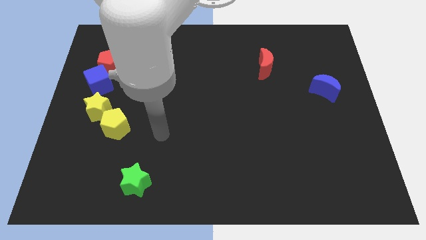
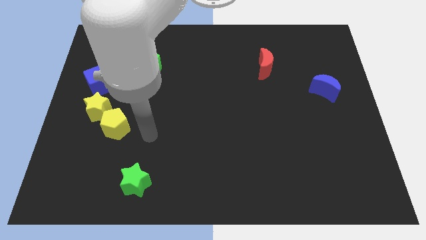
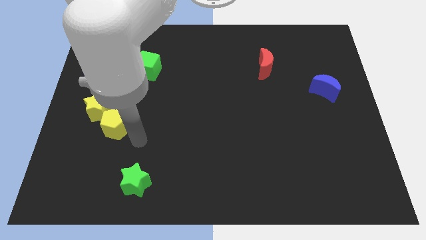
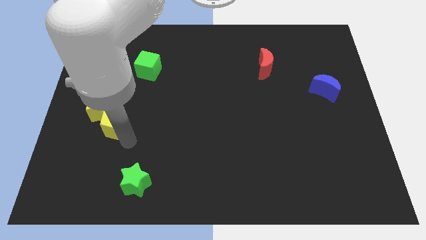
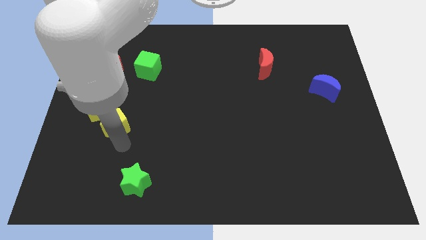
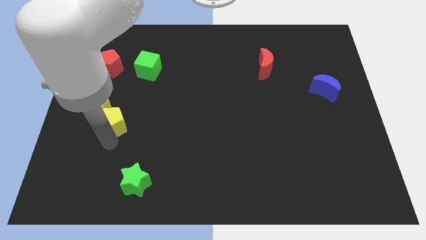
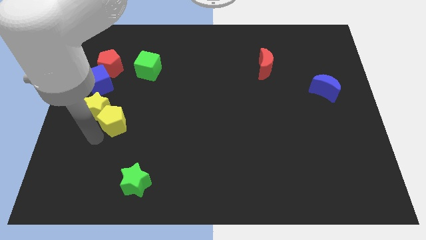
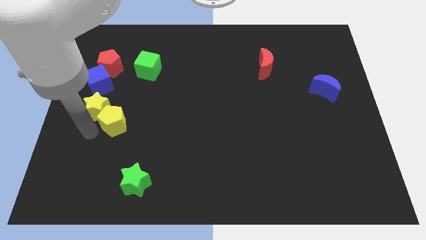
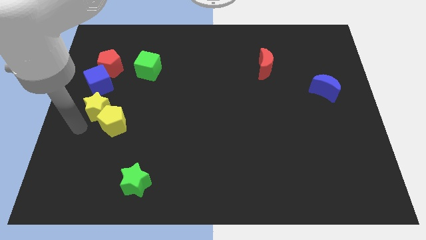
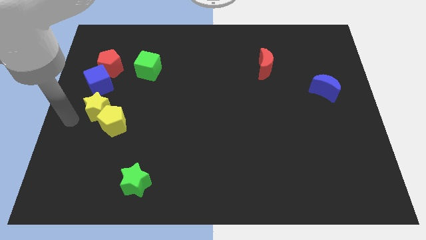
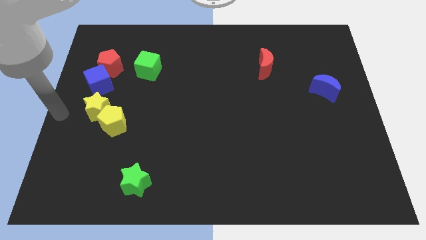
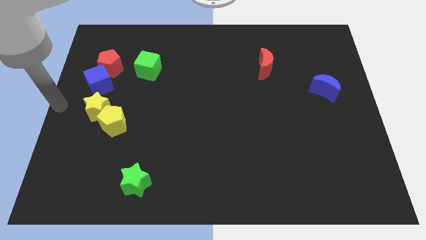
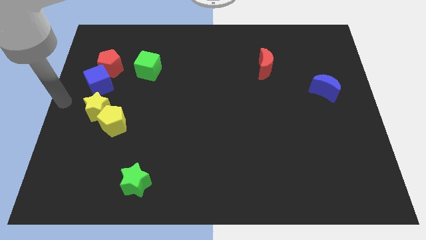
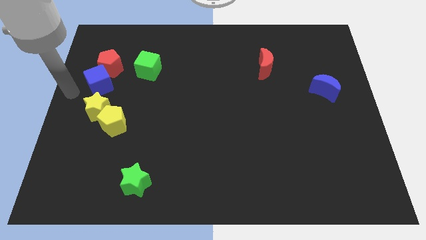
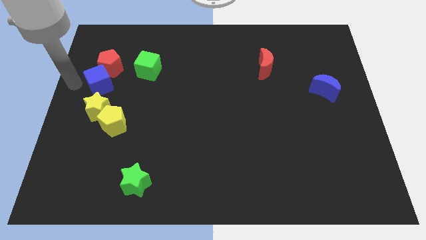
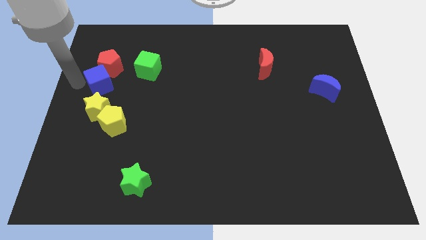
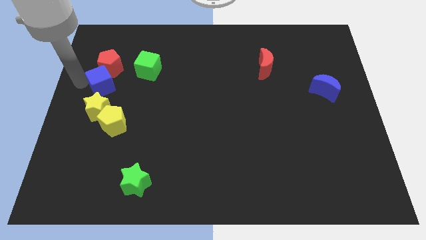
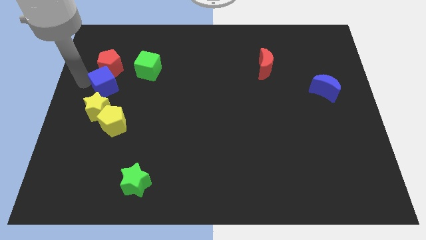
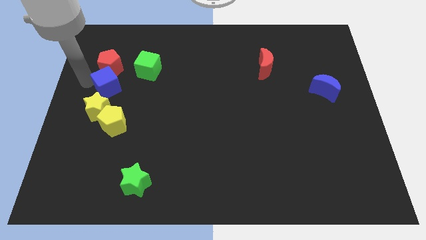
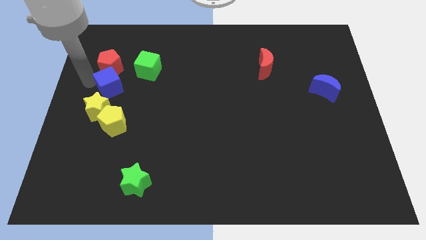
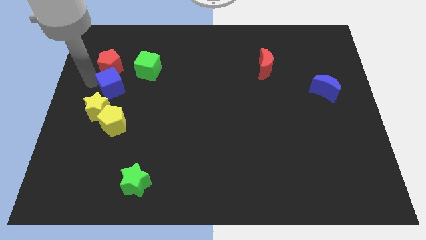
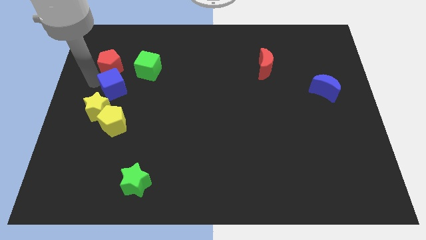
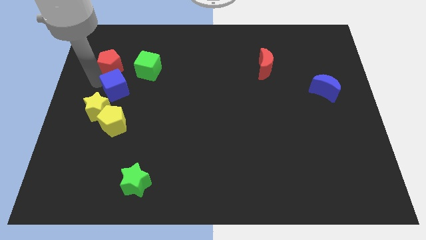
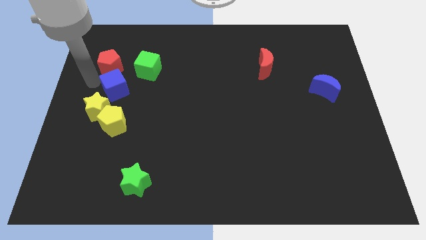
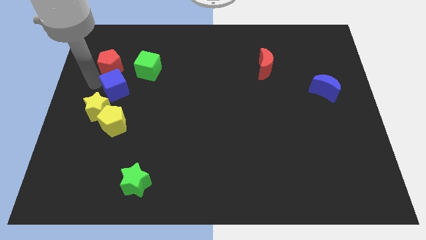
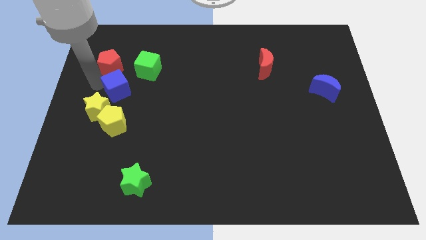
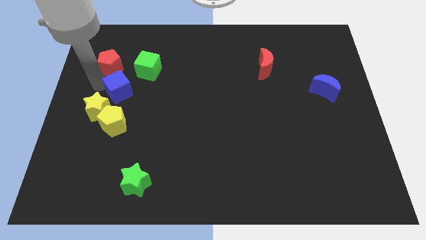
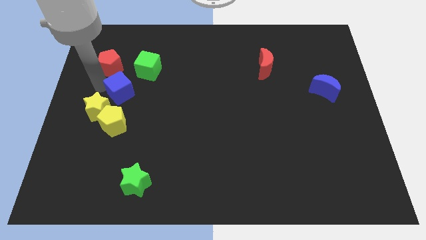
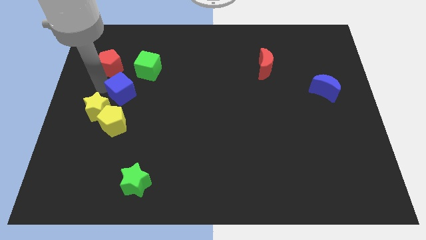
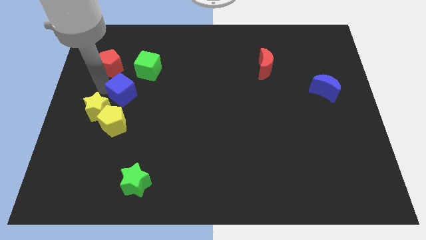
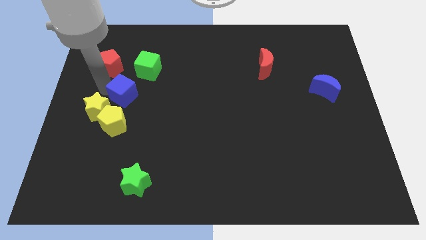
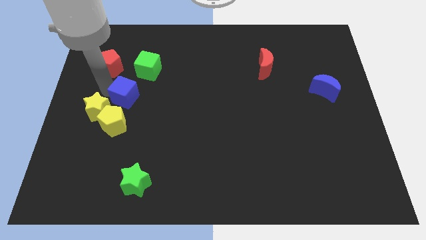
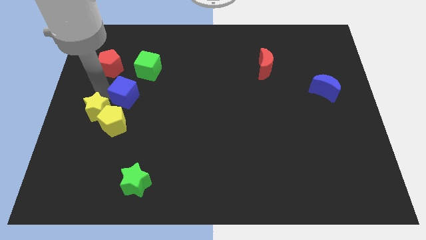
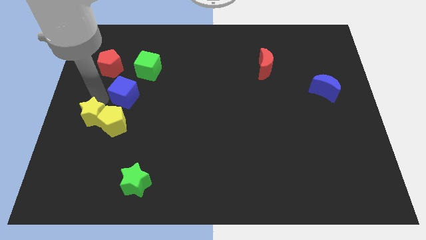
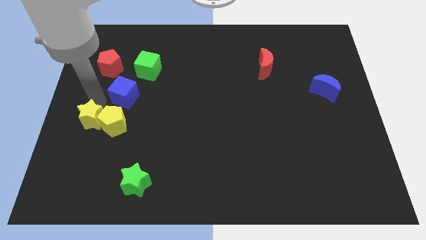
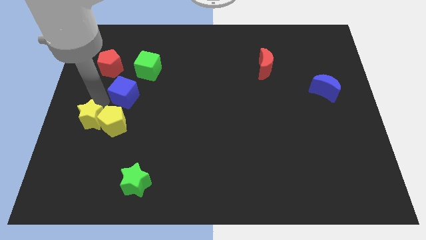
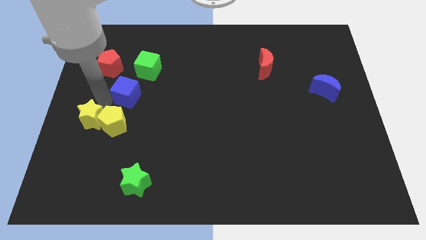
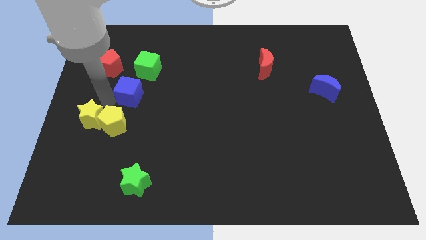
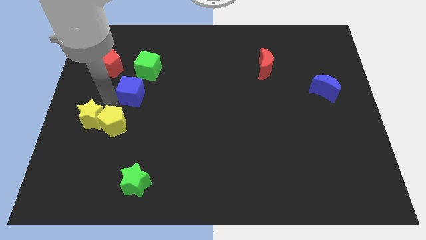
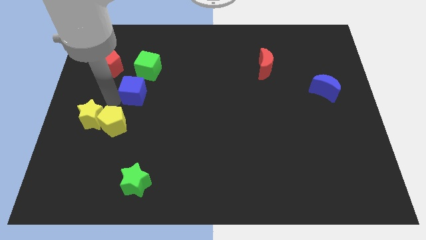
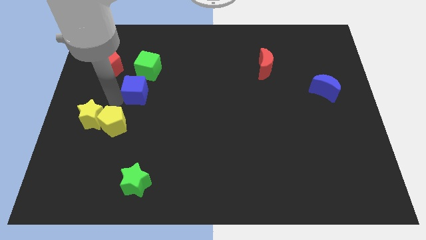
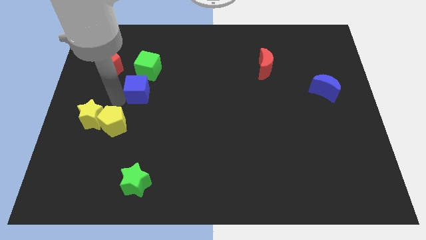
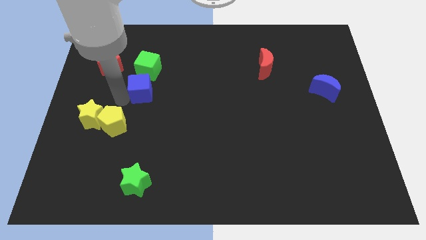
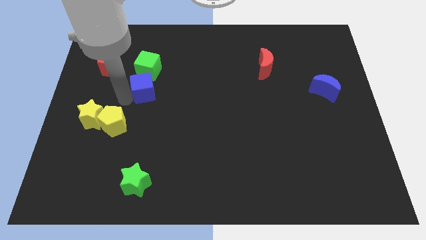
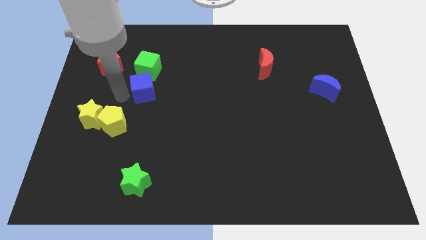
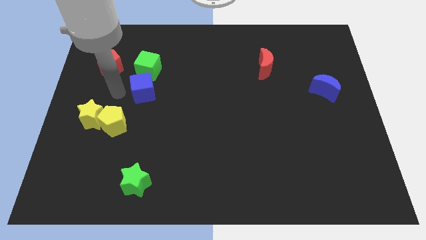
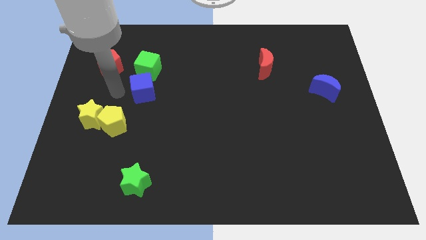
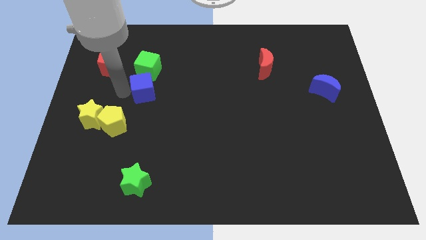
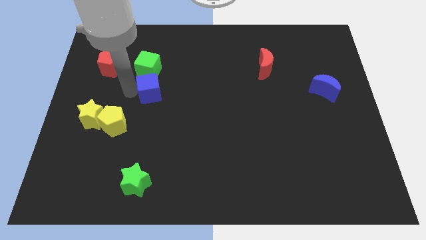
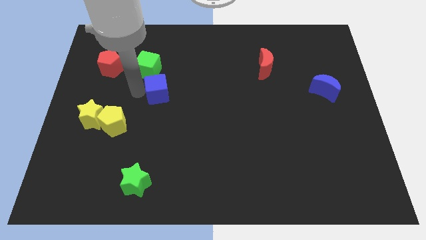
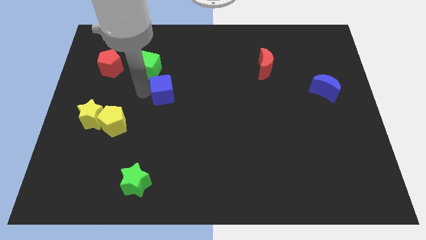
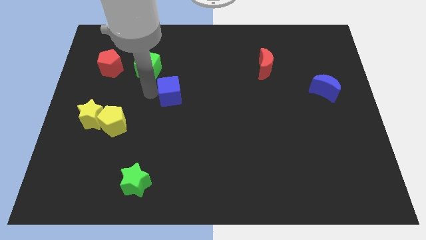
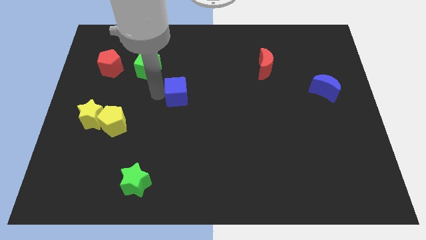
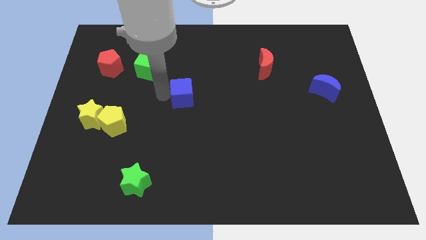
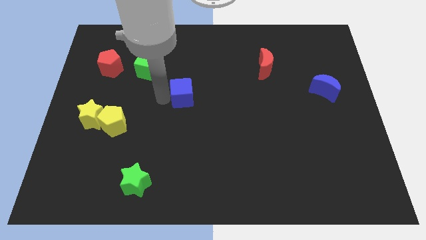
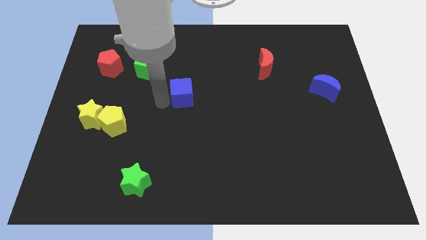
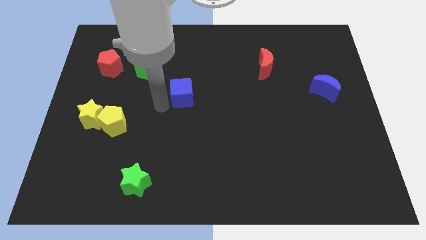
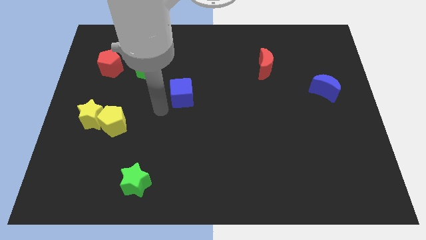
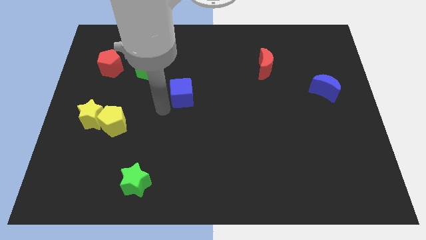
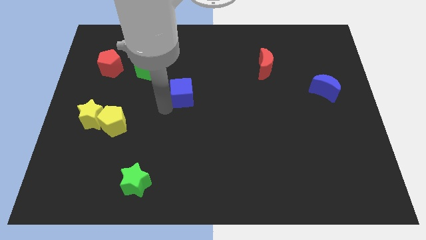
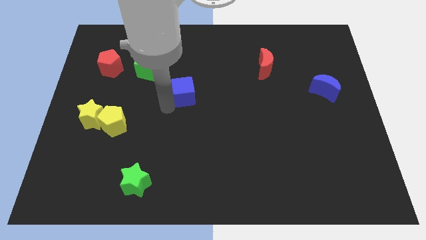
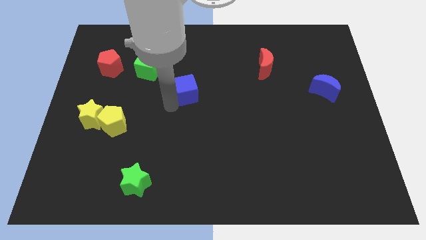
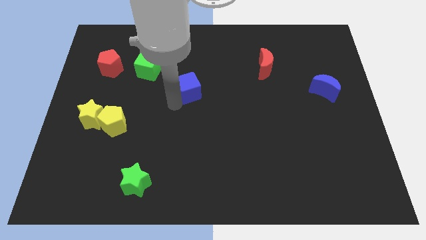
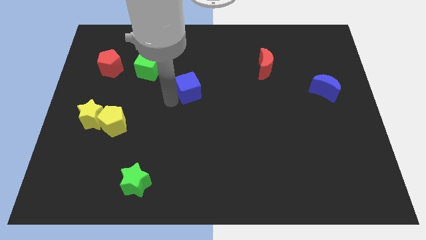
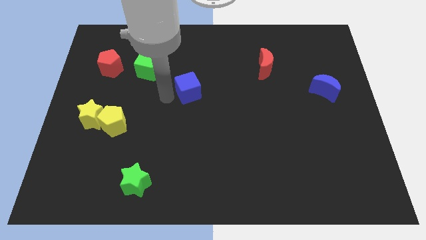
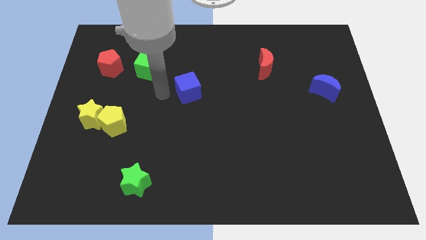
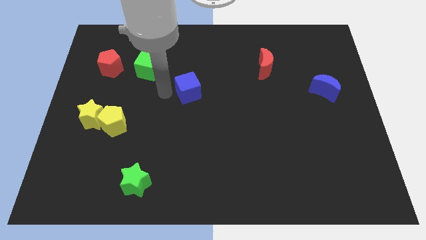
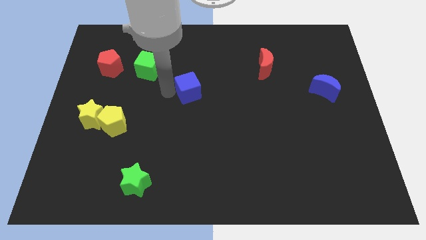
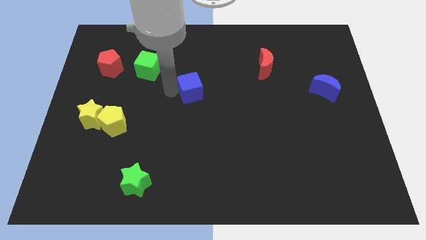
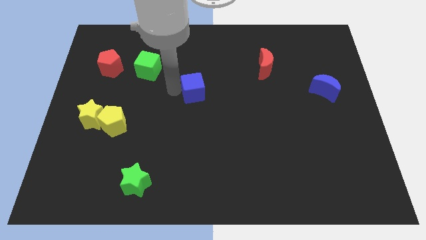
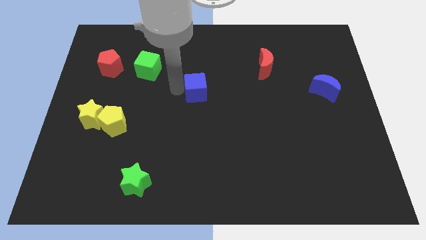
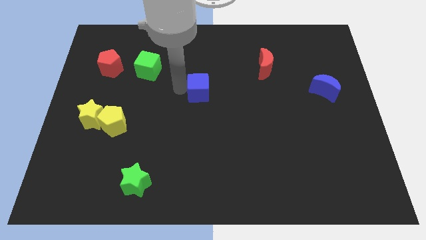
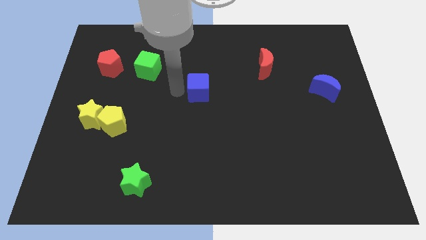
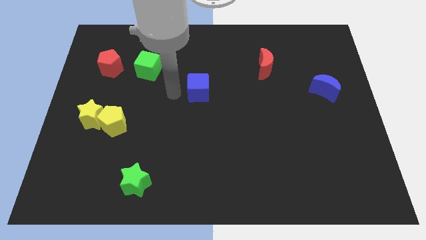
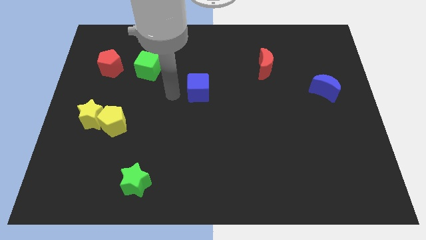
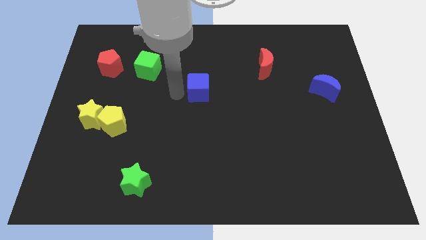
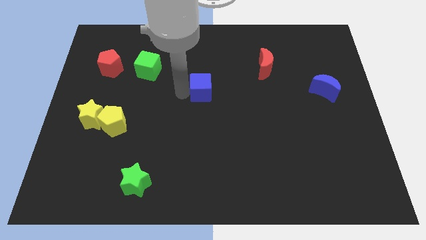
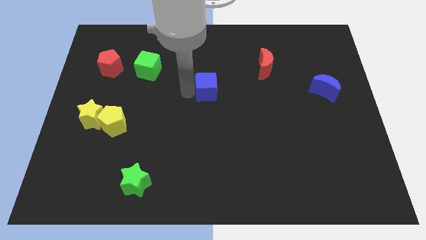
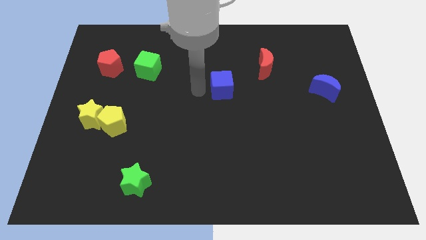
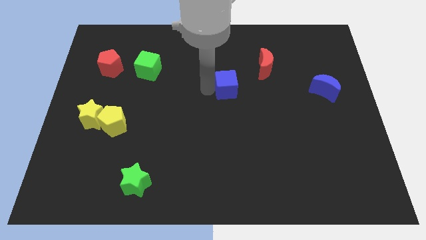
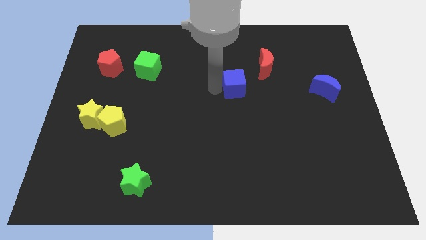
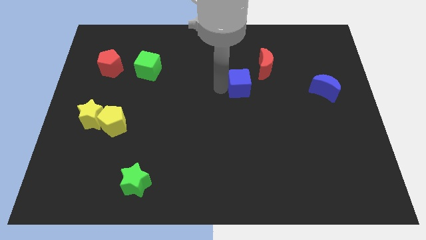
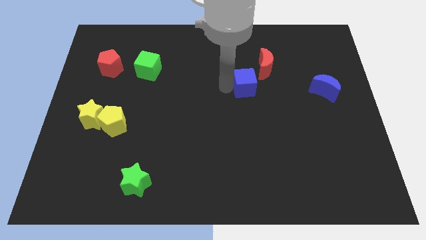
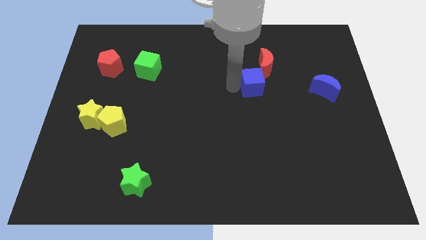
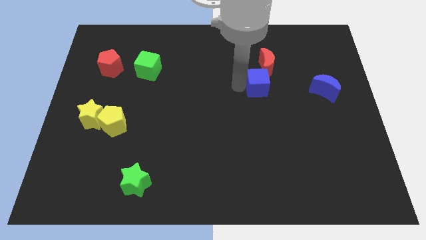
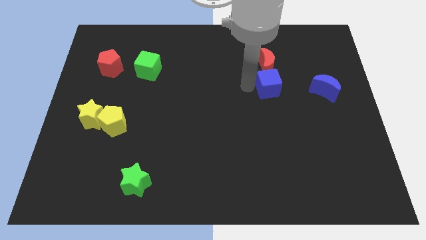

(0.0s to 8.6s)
slide the blue cube to the bottom right side of the red moon
